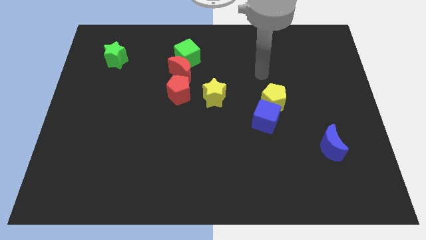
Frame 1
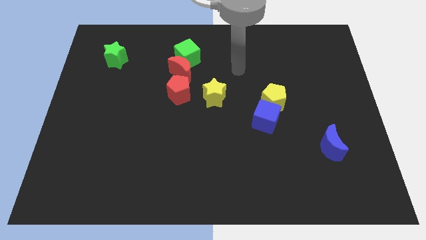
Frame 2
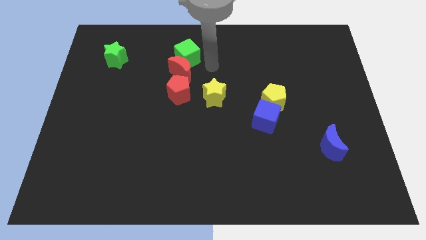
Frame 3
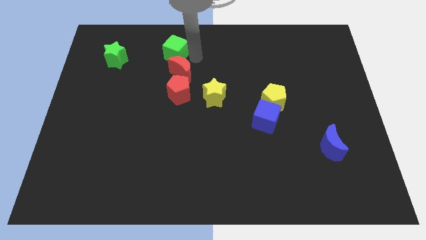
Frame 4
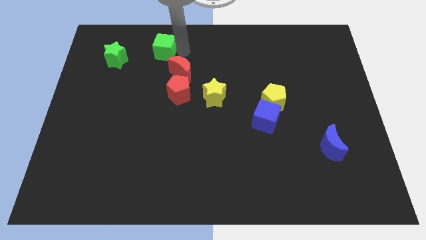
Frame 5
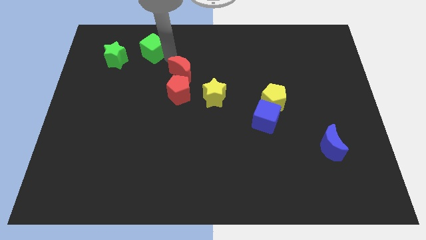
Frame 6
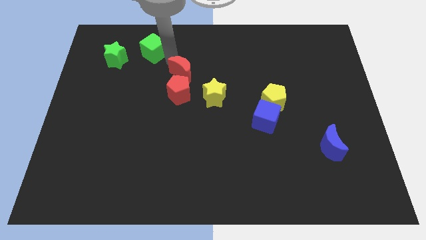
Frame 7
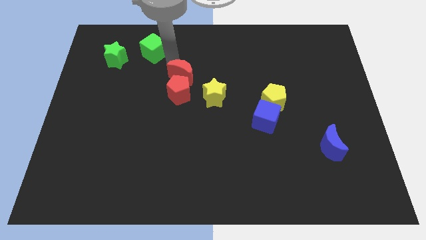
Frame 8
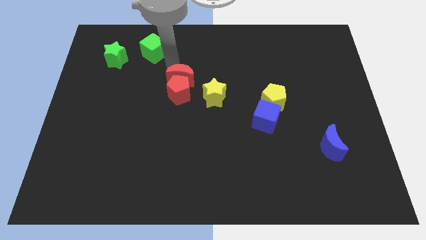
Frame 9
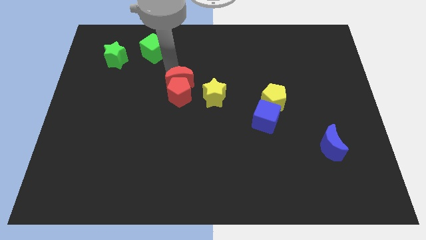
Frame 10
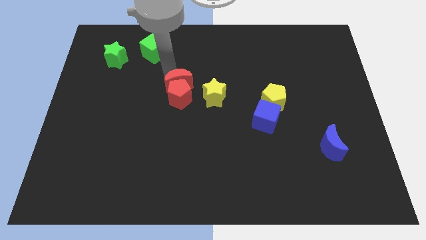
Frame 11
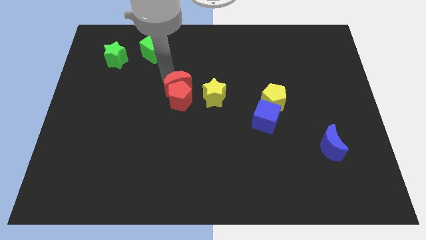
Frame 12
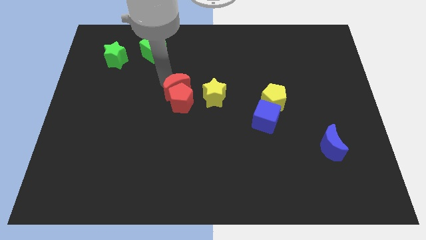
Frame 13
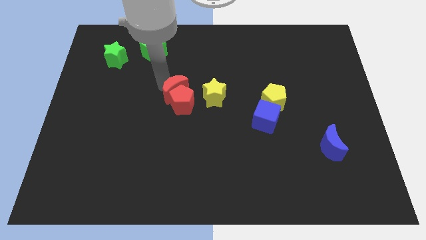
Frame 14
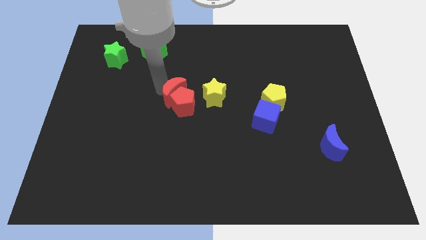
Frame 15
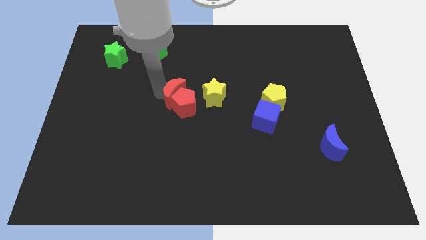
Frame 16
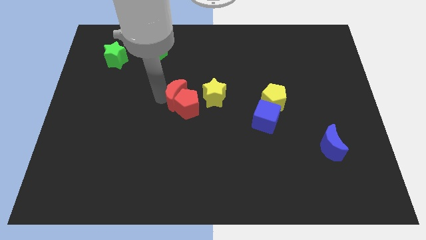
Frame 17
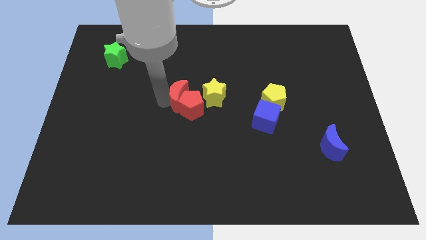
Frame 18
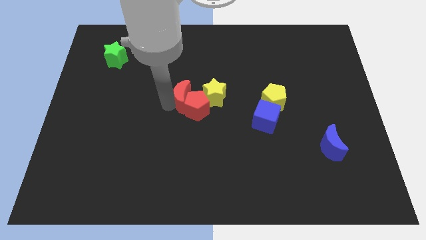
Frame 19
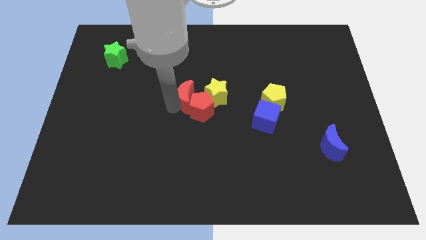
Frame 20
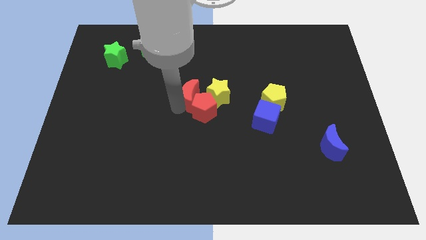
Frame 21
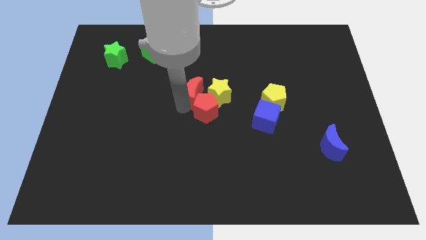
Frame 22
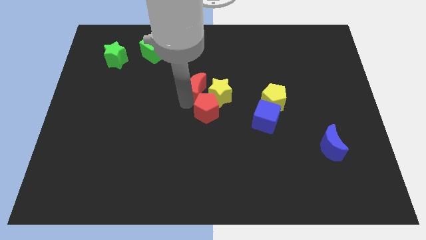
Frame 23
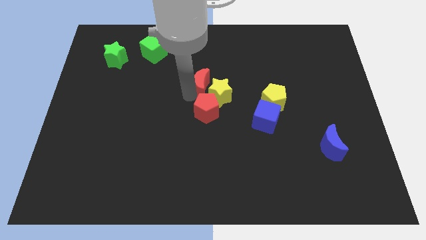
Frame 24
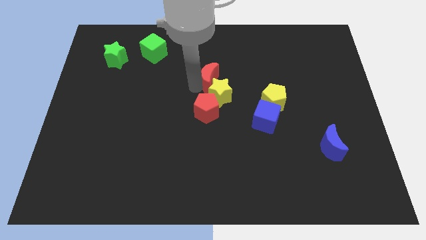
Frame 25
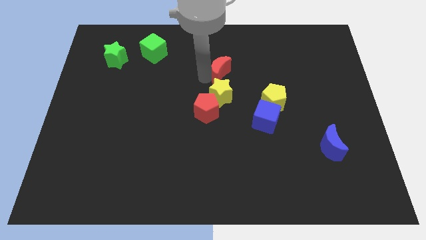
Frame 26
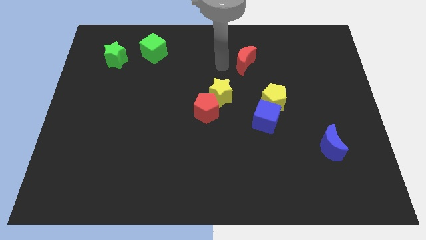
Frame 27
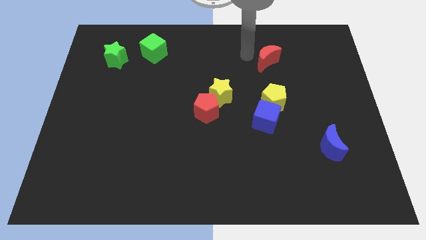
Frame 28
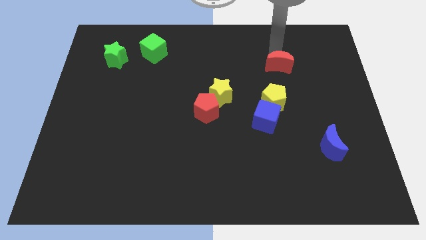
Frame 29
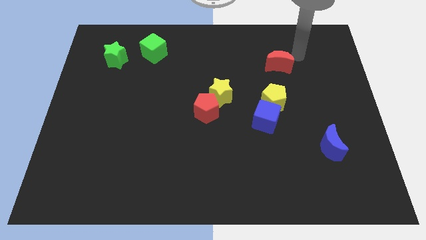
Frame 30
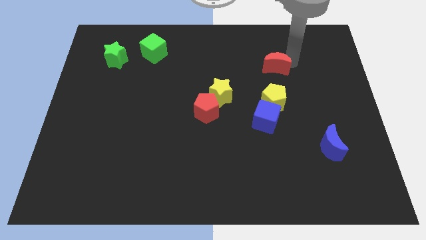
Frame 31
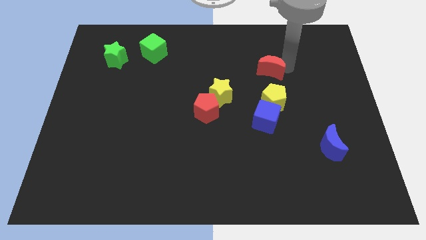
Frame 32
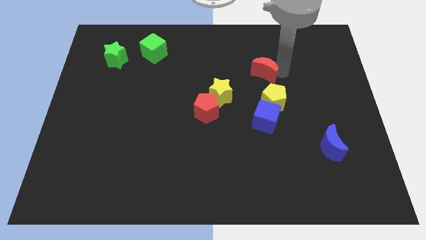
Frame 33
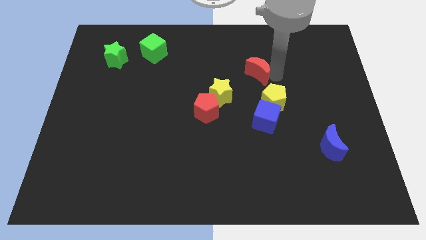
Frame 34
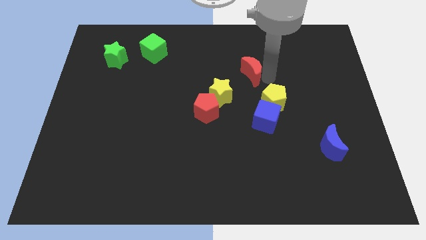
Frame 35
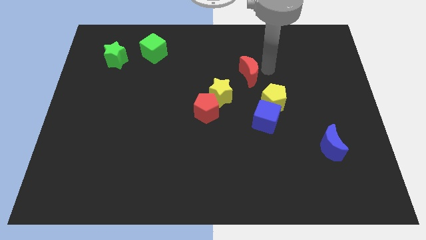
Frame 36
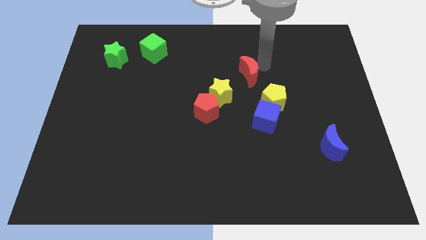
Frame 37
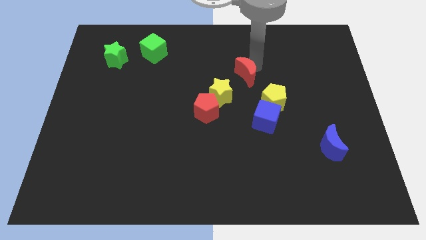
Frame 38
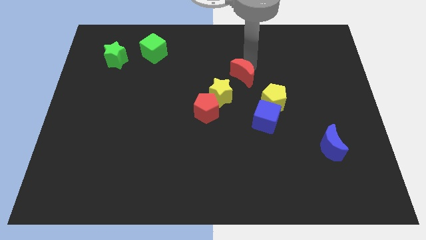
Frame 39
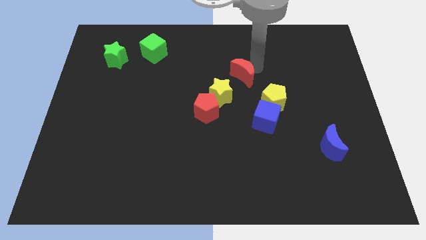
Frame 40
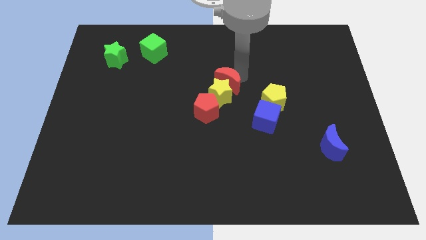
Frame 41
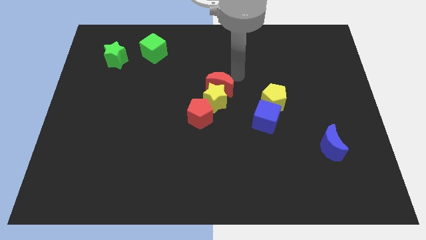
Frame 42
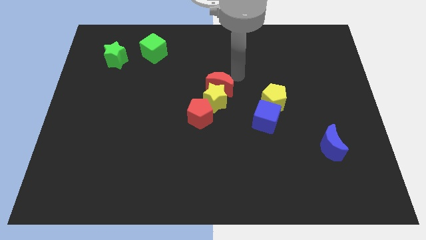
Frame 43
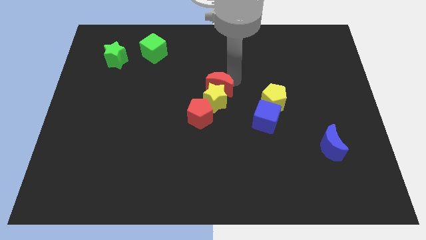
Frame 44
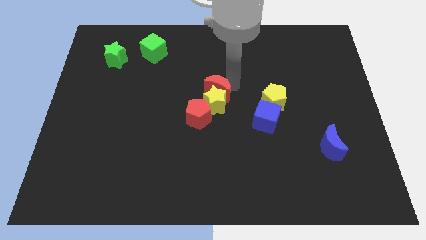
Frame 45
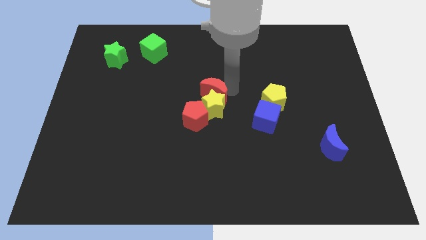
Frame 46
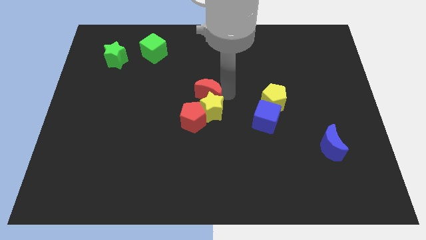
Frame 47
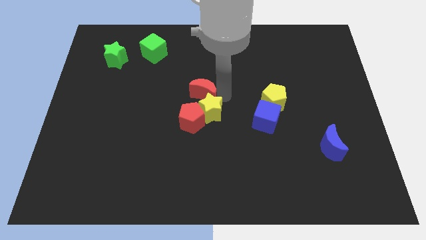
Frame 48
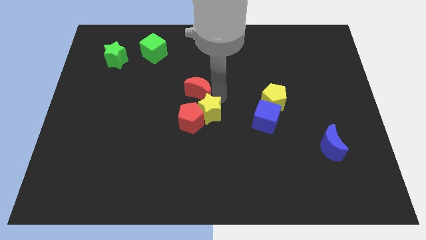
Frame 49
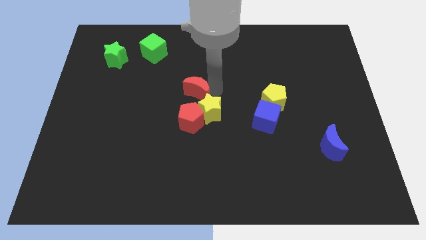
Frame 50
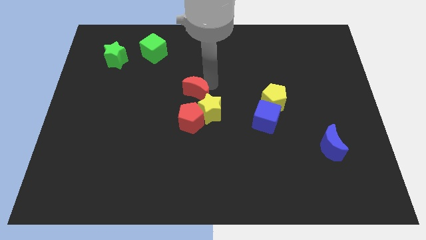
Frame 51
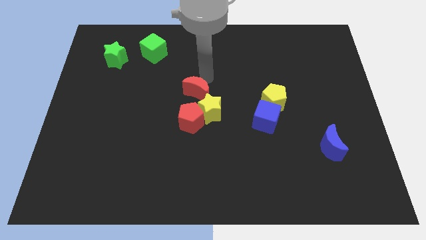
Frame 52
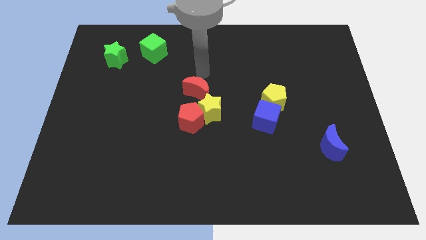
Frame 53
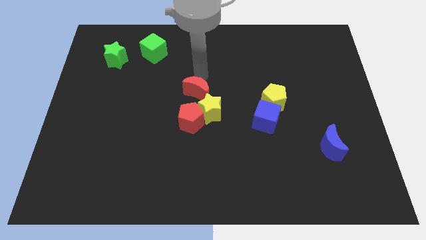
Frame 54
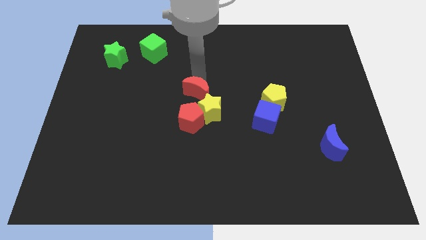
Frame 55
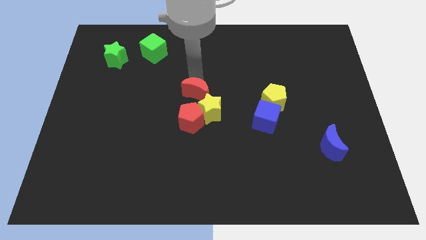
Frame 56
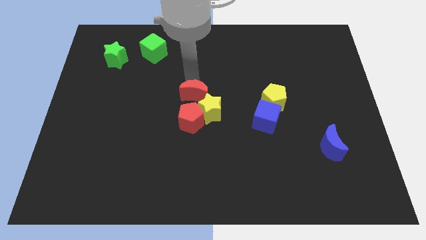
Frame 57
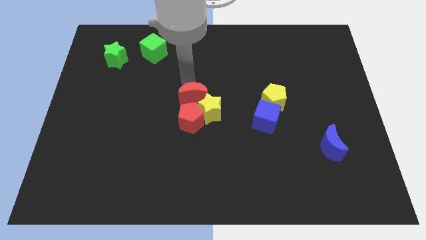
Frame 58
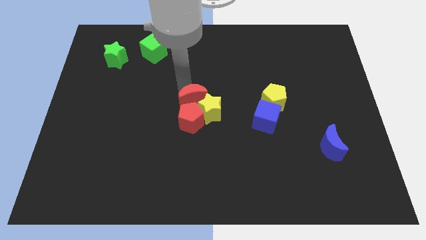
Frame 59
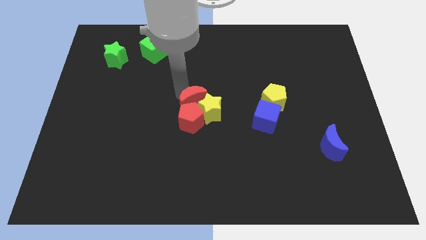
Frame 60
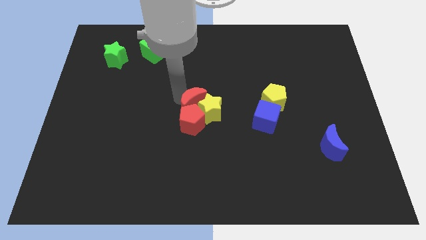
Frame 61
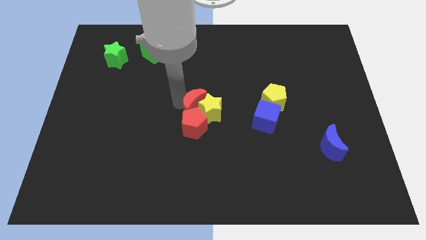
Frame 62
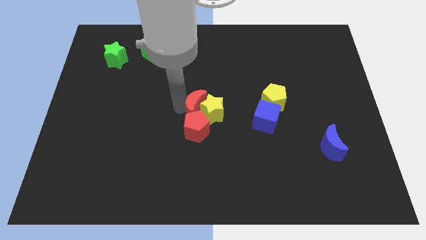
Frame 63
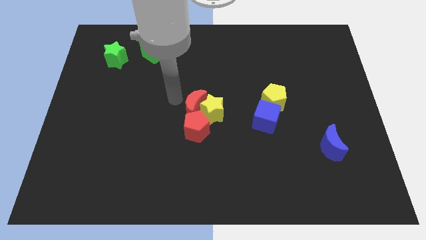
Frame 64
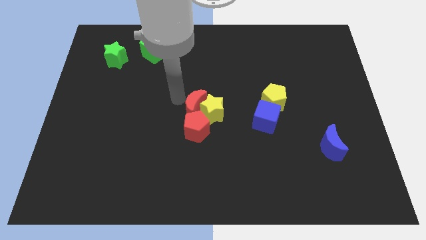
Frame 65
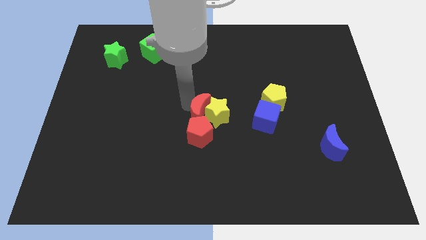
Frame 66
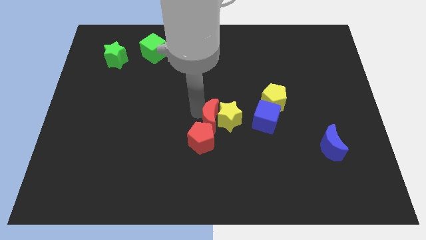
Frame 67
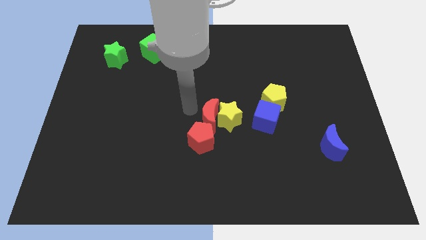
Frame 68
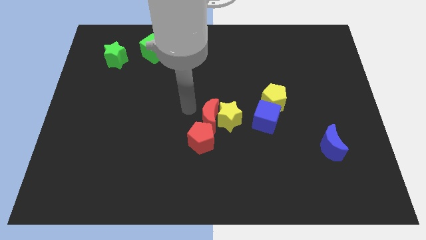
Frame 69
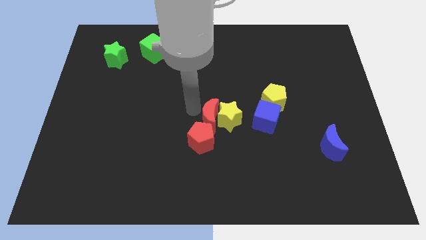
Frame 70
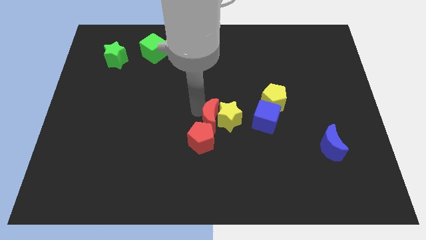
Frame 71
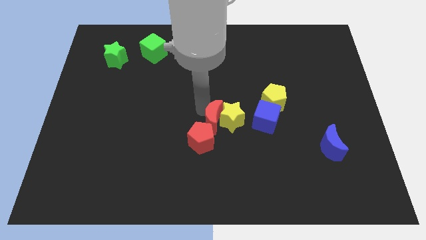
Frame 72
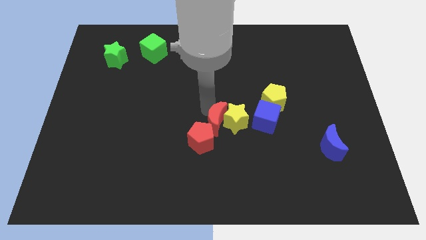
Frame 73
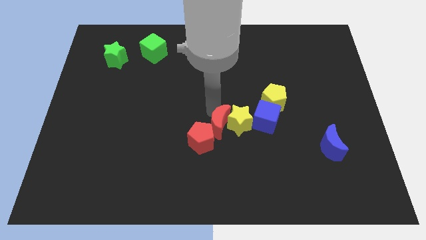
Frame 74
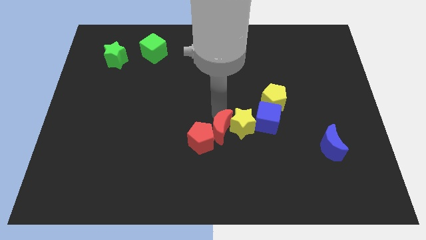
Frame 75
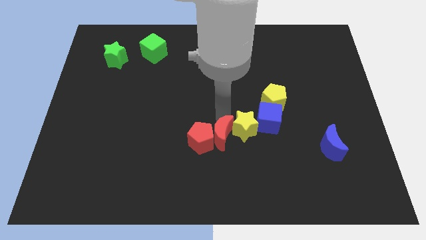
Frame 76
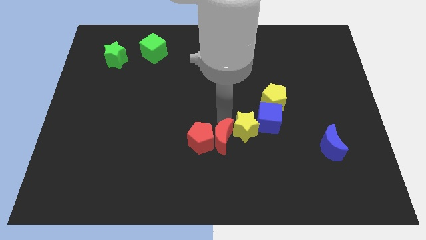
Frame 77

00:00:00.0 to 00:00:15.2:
slide the red moon to the bottom left side of the blue cube
